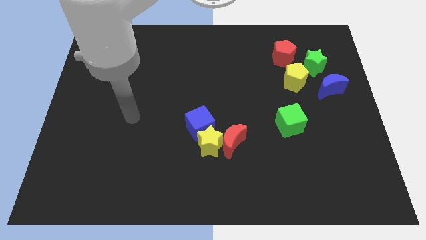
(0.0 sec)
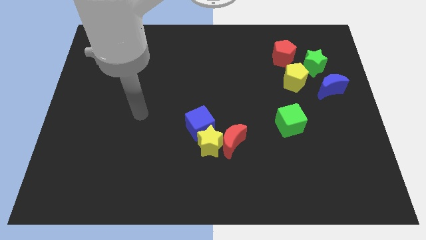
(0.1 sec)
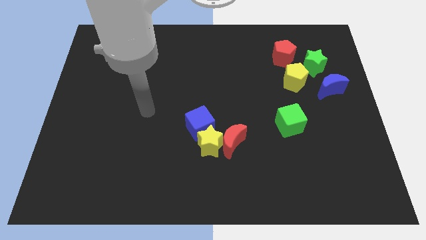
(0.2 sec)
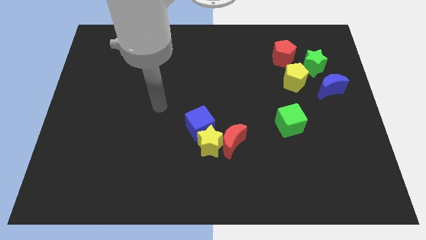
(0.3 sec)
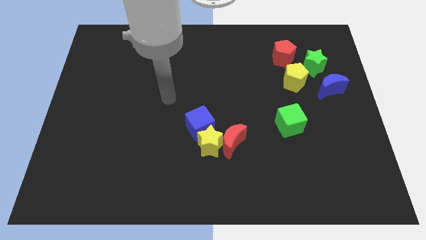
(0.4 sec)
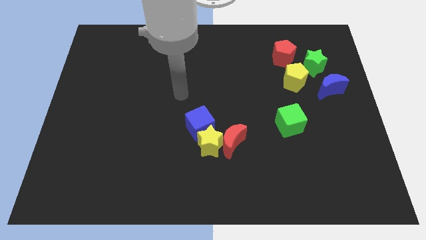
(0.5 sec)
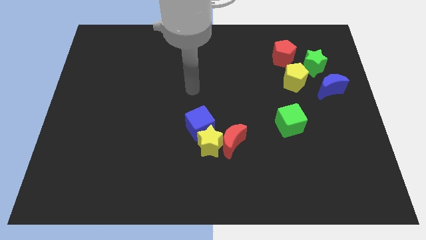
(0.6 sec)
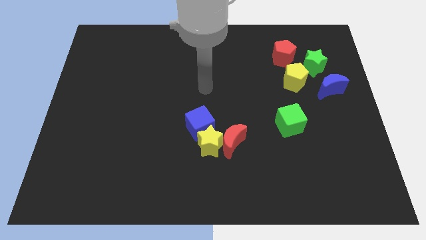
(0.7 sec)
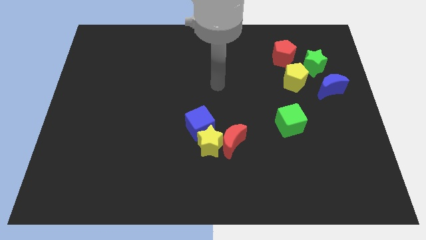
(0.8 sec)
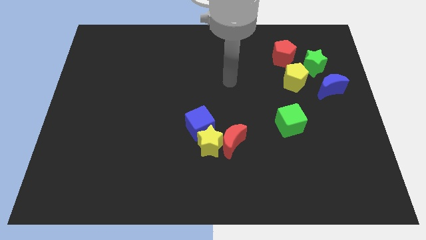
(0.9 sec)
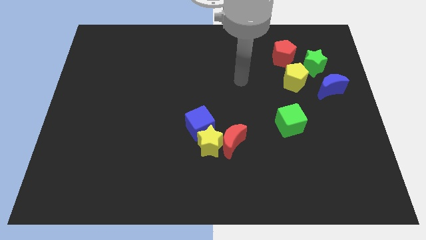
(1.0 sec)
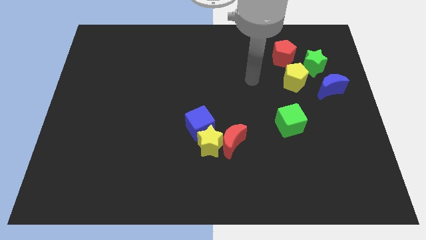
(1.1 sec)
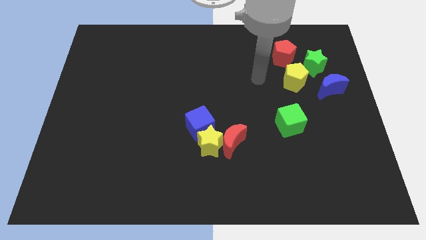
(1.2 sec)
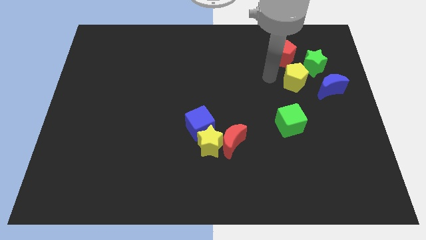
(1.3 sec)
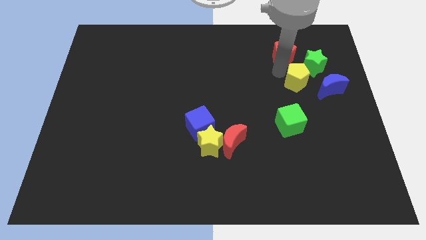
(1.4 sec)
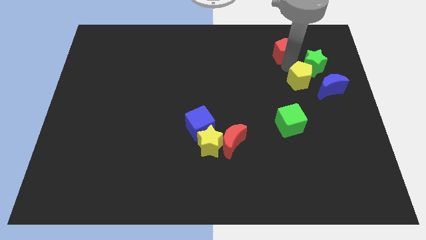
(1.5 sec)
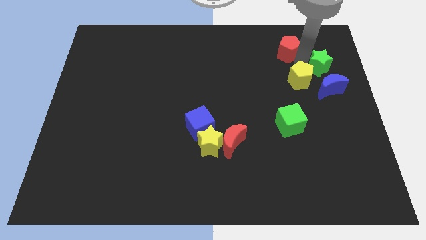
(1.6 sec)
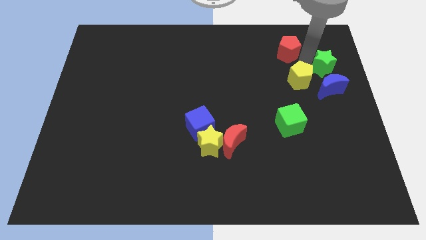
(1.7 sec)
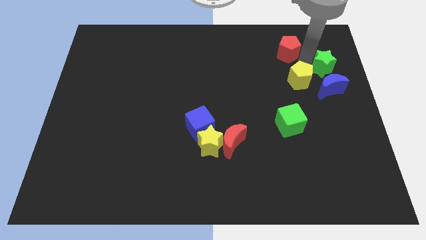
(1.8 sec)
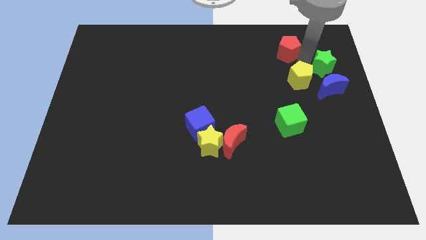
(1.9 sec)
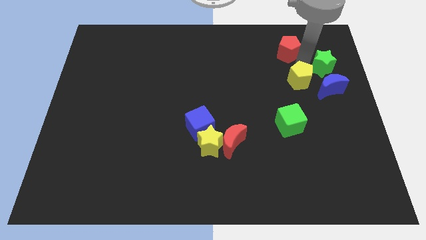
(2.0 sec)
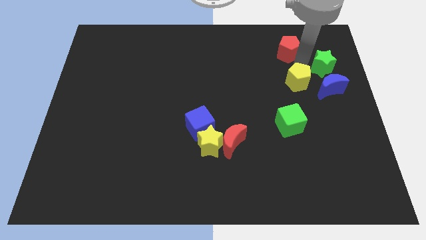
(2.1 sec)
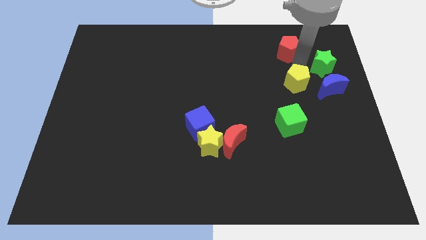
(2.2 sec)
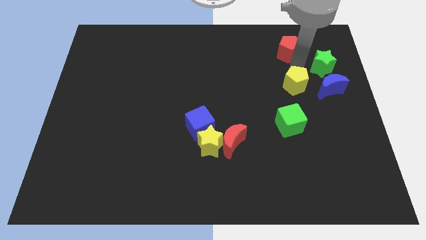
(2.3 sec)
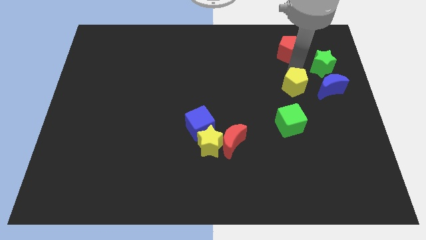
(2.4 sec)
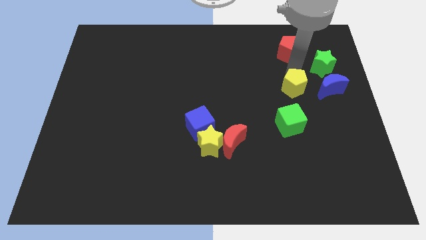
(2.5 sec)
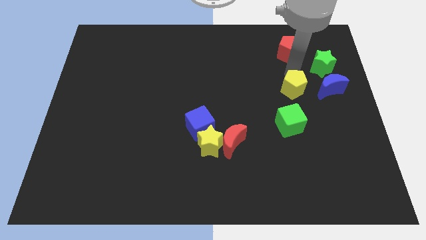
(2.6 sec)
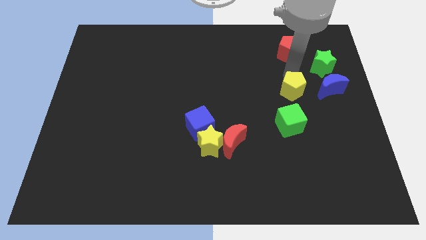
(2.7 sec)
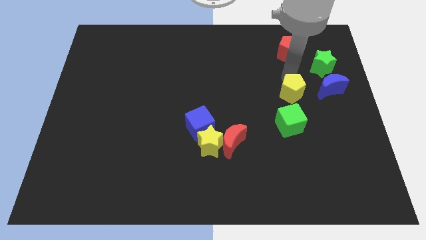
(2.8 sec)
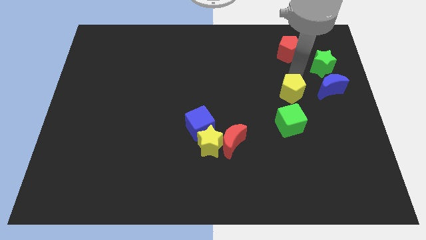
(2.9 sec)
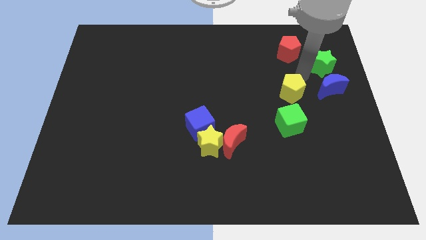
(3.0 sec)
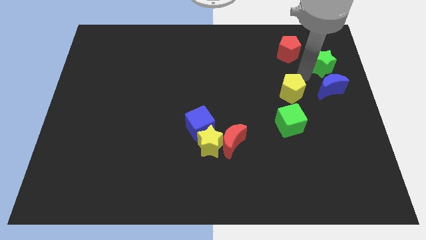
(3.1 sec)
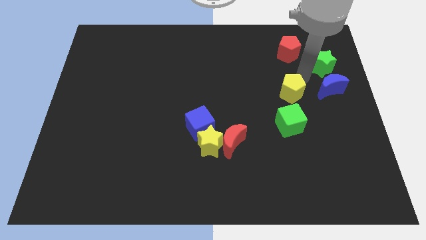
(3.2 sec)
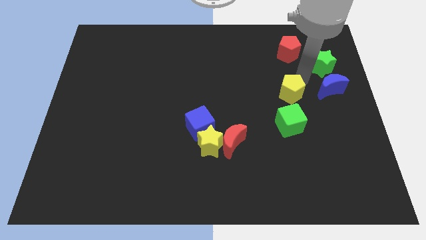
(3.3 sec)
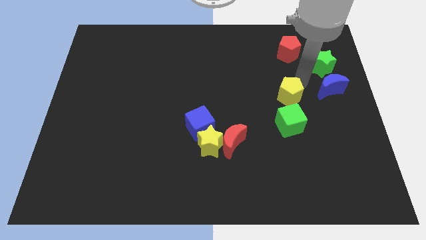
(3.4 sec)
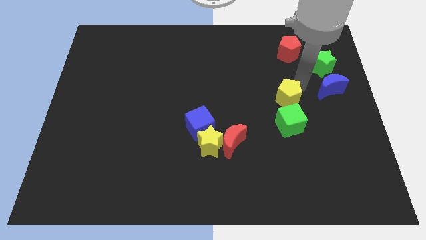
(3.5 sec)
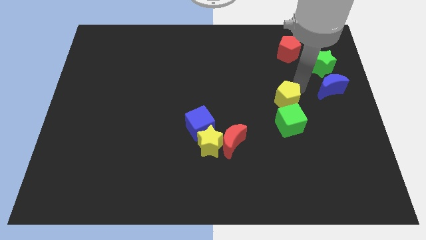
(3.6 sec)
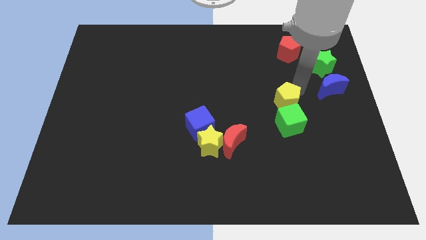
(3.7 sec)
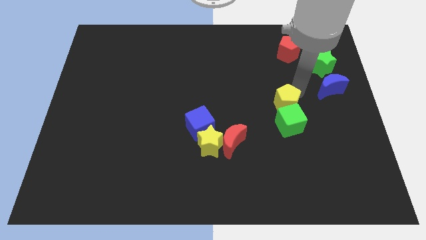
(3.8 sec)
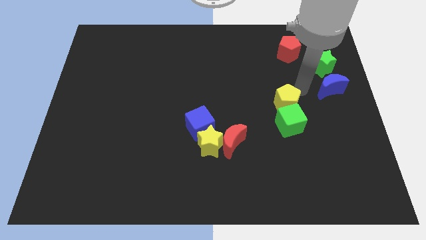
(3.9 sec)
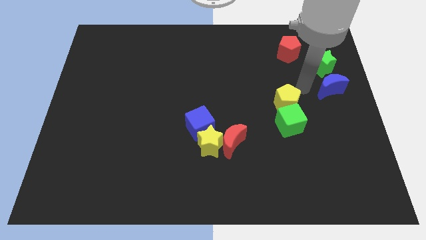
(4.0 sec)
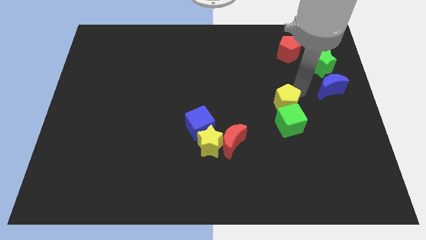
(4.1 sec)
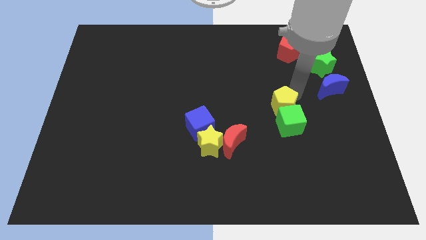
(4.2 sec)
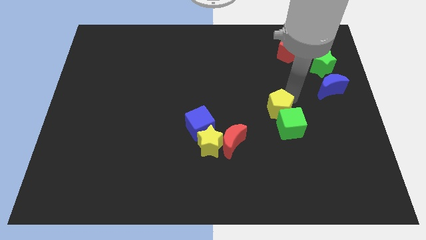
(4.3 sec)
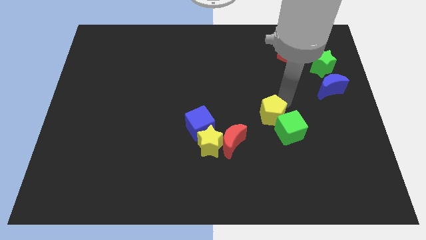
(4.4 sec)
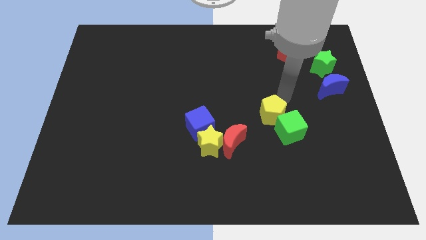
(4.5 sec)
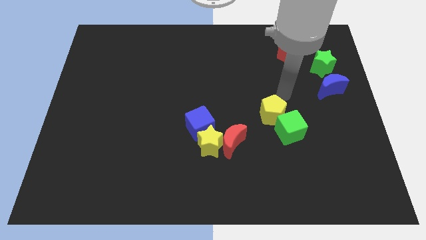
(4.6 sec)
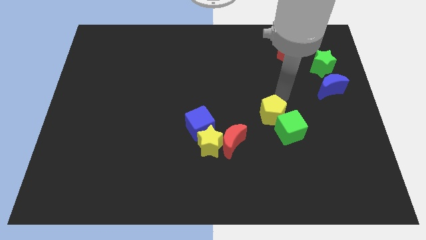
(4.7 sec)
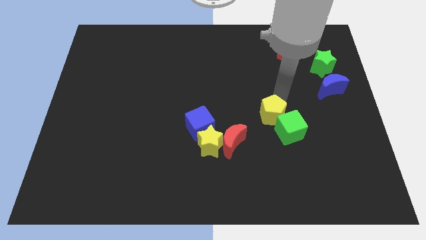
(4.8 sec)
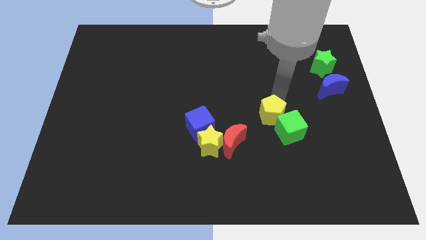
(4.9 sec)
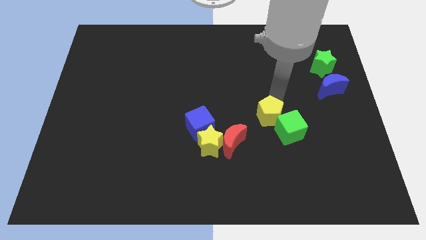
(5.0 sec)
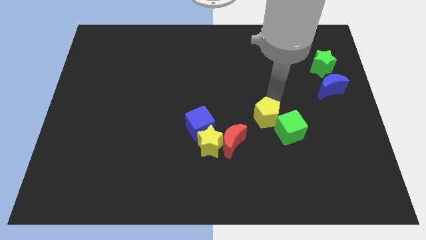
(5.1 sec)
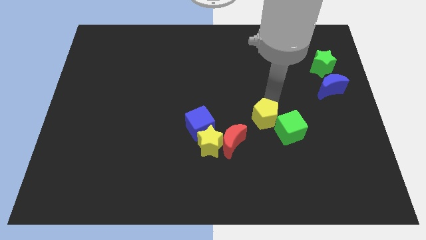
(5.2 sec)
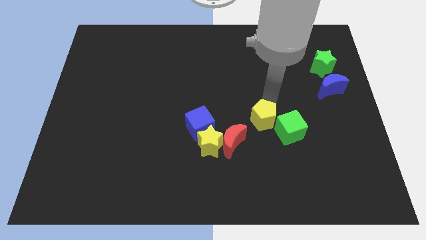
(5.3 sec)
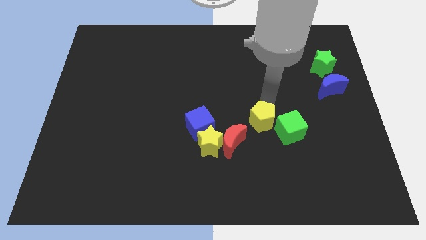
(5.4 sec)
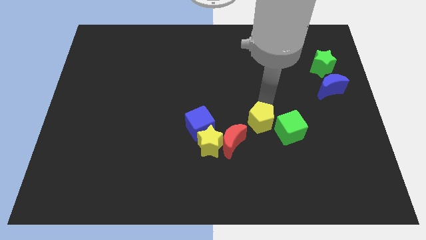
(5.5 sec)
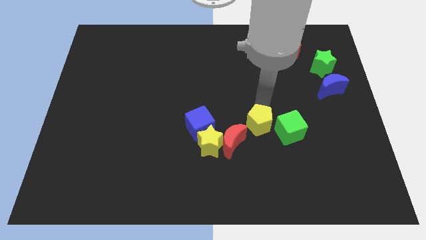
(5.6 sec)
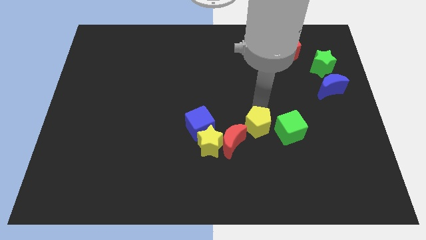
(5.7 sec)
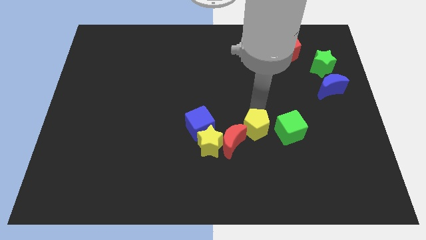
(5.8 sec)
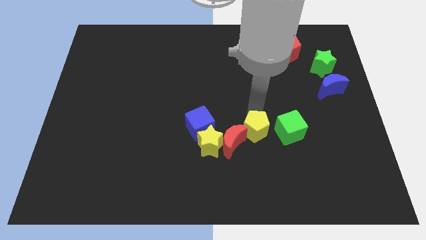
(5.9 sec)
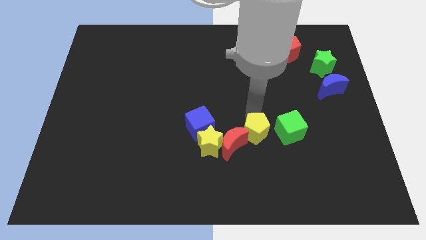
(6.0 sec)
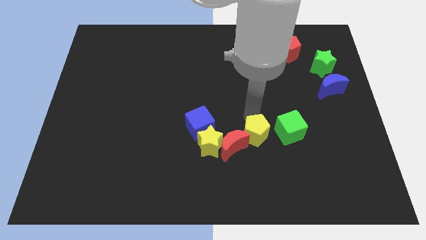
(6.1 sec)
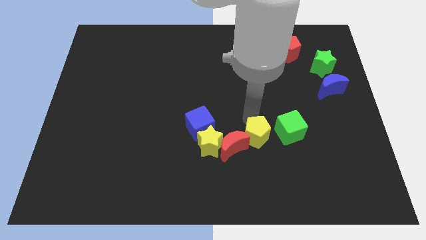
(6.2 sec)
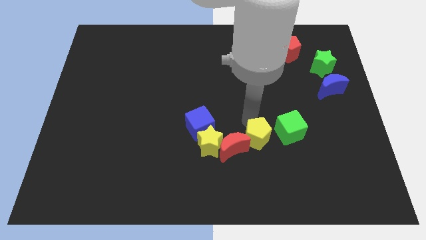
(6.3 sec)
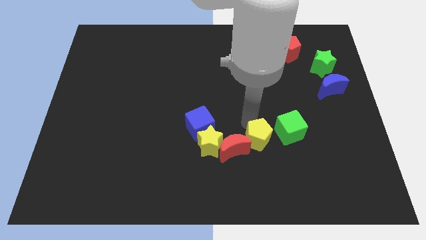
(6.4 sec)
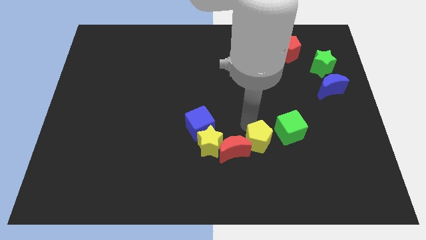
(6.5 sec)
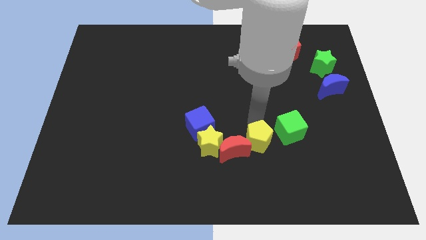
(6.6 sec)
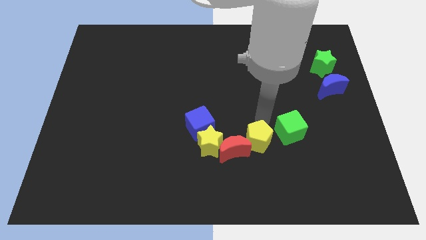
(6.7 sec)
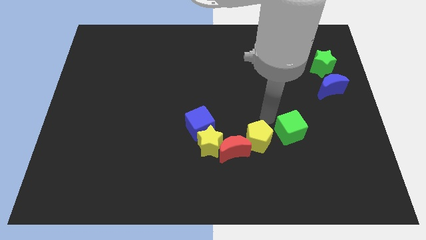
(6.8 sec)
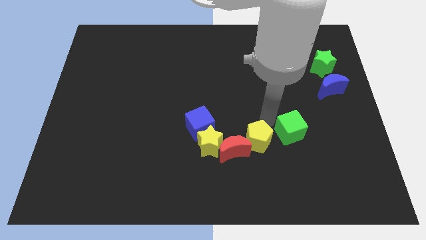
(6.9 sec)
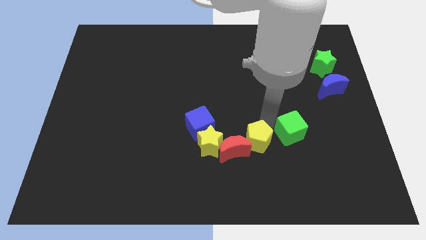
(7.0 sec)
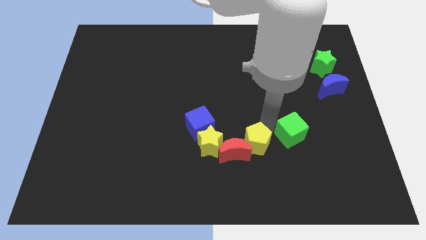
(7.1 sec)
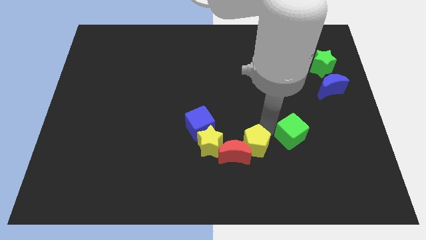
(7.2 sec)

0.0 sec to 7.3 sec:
push the yellow pentagon down and then left

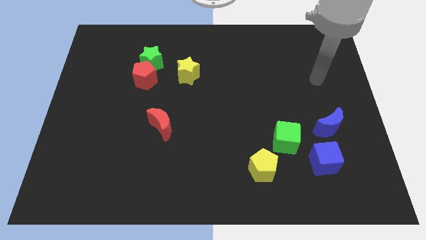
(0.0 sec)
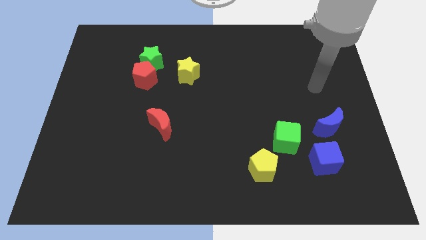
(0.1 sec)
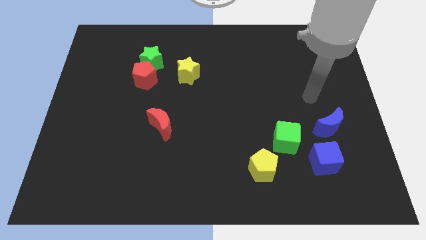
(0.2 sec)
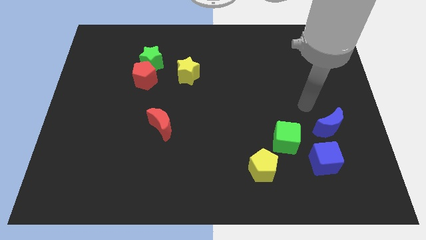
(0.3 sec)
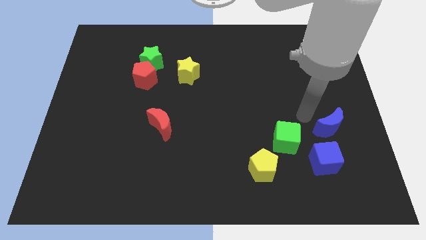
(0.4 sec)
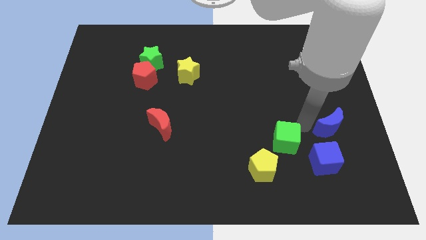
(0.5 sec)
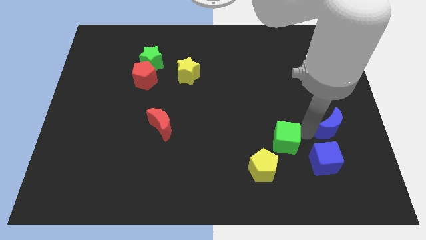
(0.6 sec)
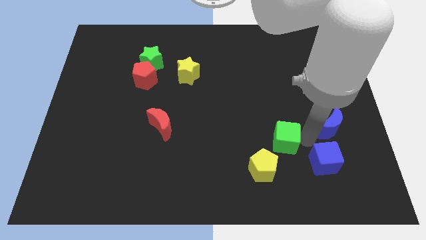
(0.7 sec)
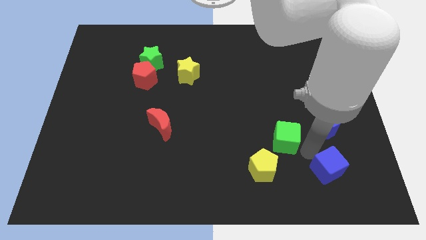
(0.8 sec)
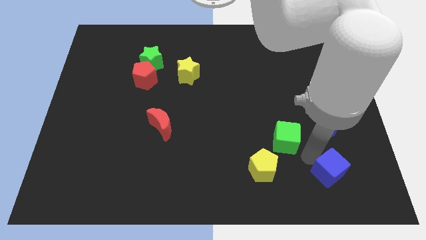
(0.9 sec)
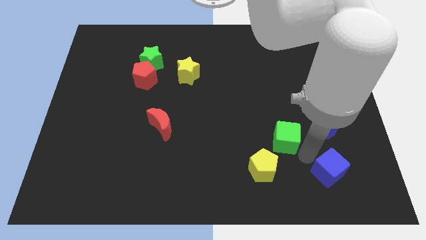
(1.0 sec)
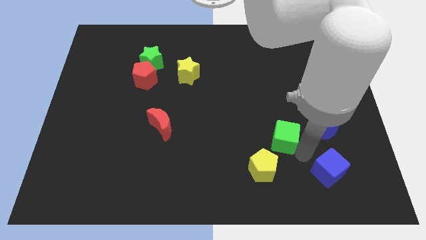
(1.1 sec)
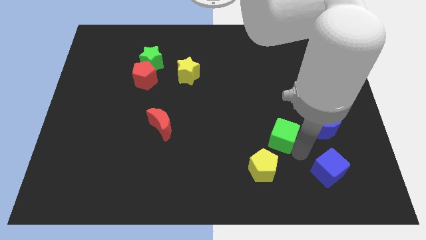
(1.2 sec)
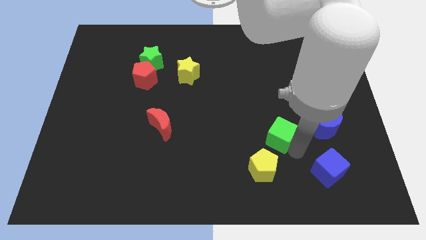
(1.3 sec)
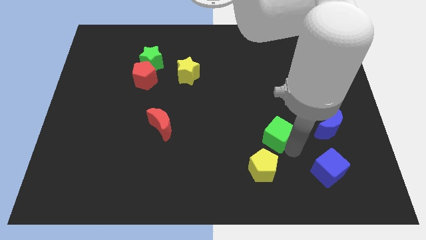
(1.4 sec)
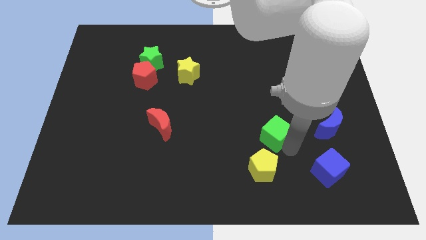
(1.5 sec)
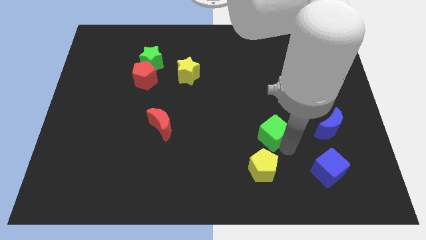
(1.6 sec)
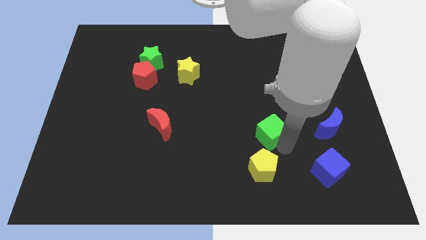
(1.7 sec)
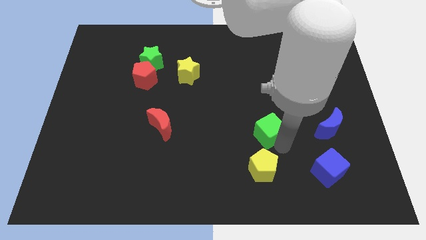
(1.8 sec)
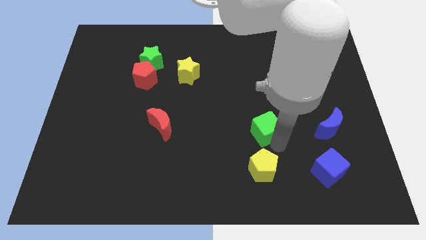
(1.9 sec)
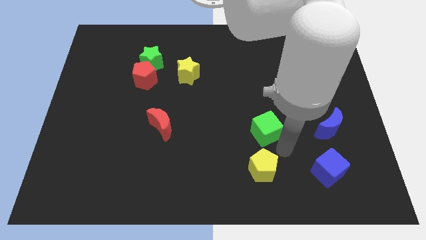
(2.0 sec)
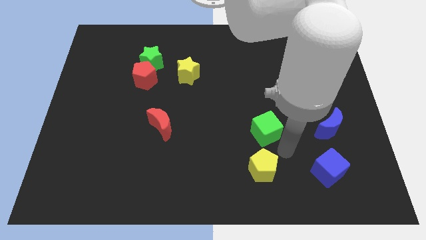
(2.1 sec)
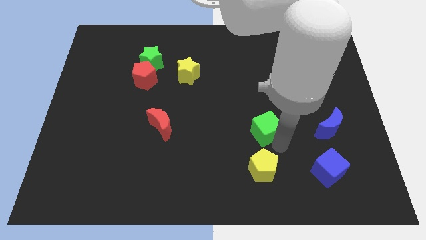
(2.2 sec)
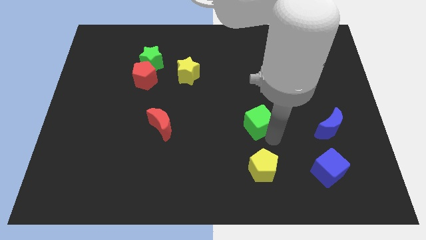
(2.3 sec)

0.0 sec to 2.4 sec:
slightly move the green cube up and to the left diagonally
